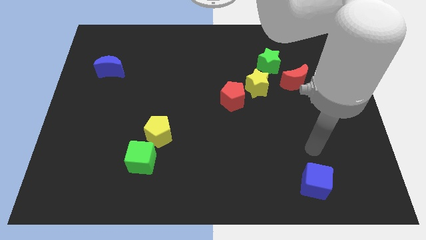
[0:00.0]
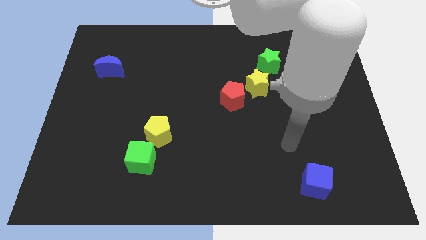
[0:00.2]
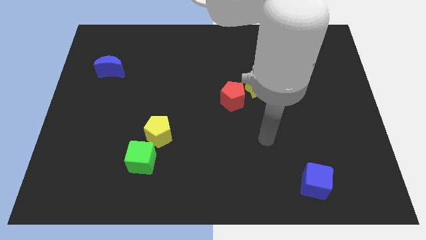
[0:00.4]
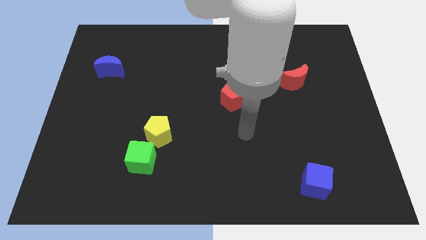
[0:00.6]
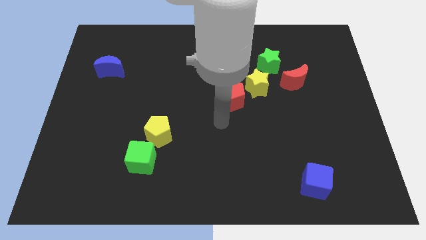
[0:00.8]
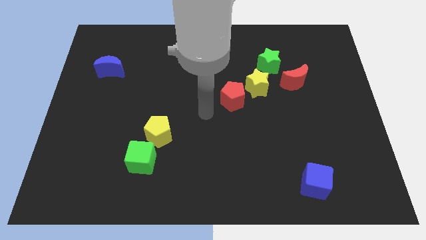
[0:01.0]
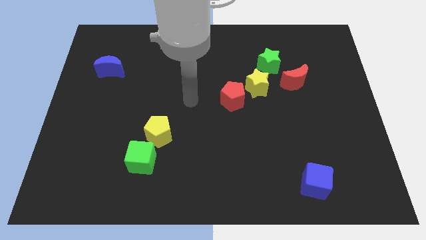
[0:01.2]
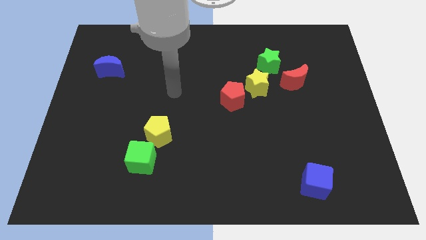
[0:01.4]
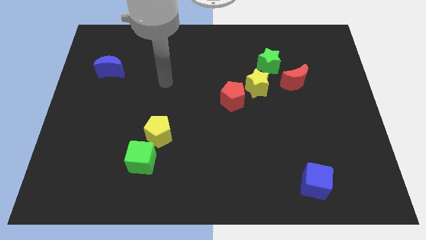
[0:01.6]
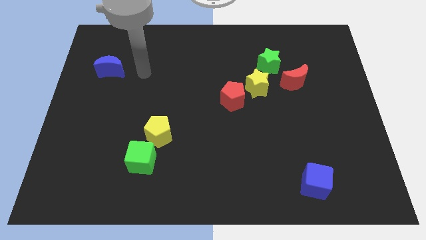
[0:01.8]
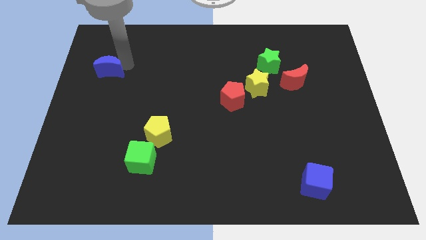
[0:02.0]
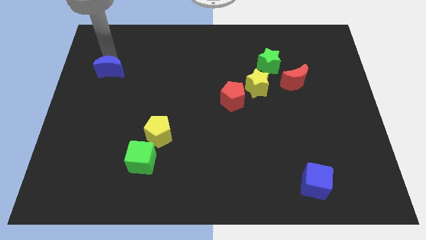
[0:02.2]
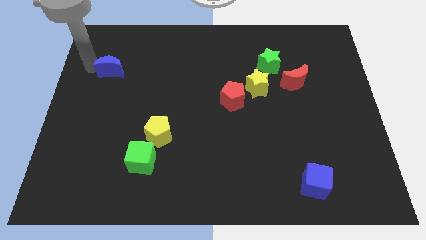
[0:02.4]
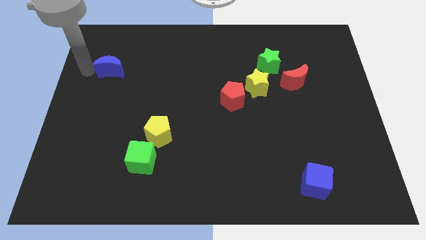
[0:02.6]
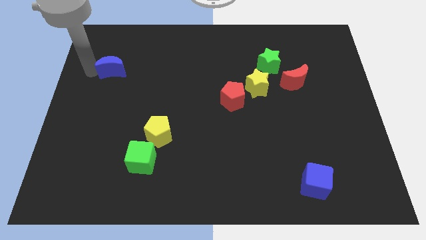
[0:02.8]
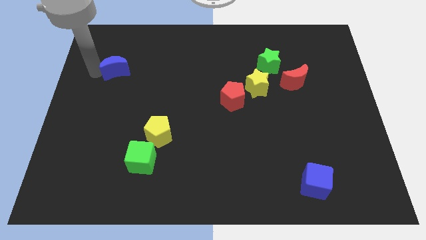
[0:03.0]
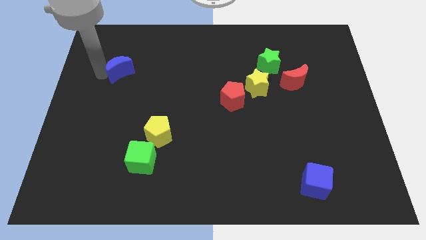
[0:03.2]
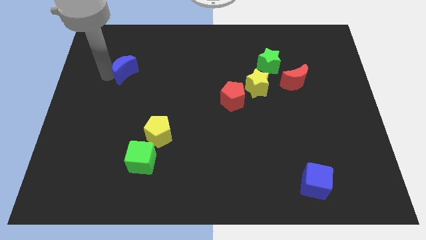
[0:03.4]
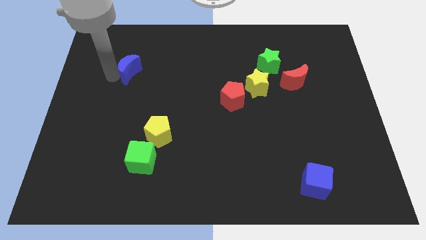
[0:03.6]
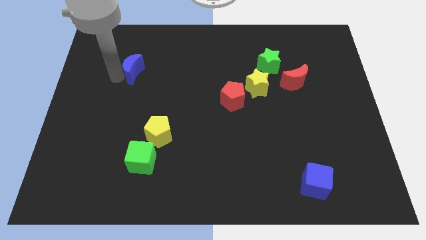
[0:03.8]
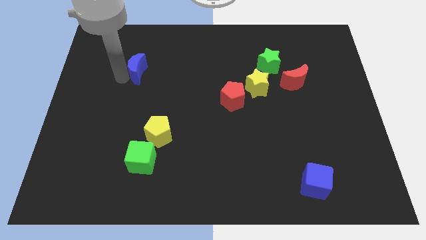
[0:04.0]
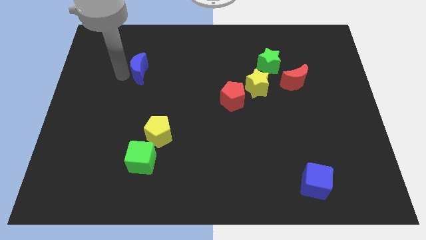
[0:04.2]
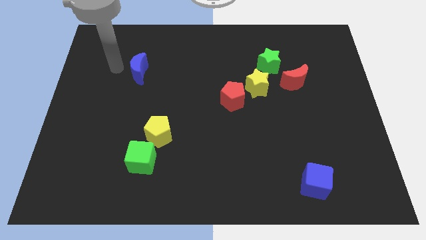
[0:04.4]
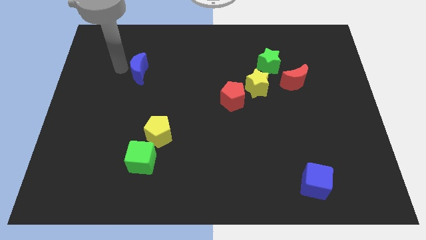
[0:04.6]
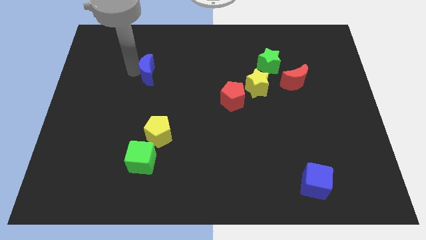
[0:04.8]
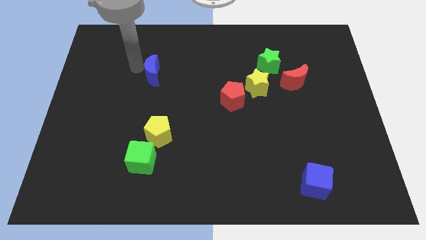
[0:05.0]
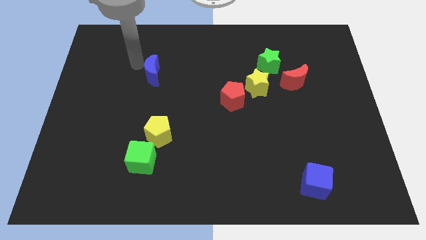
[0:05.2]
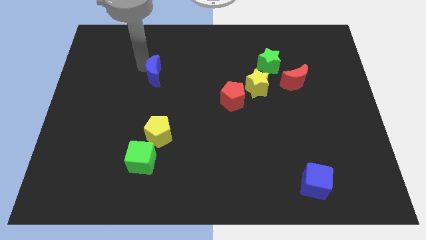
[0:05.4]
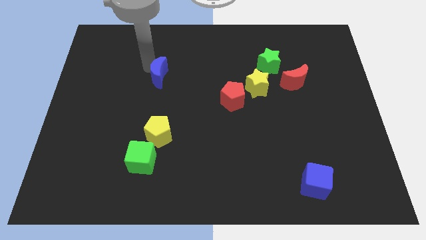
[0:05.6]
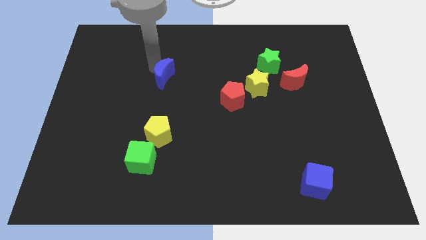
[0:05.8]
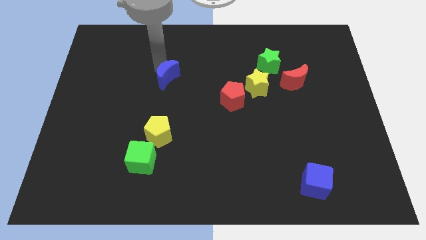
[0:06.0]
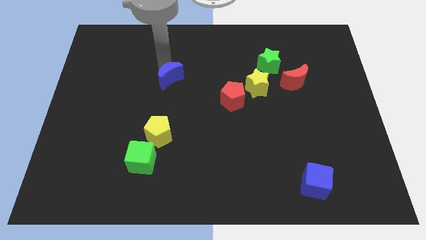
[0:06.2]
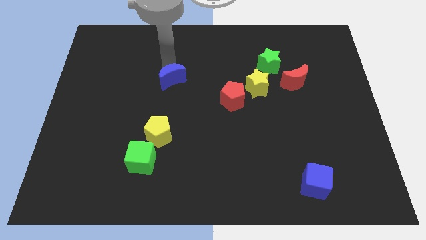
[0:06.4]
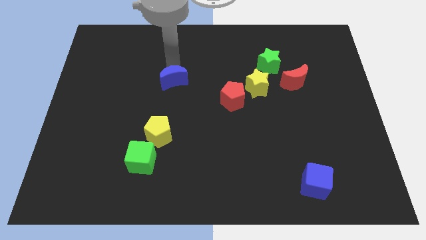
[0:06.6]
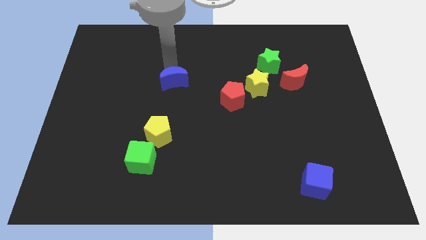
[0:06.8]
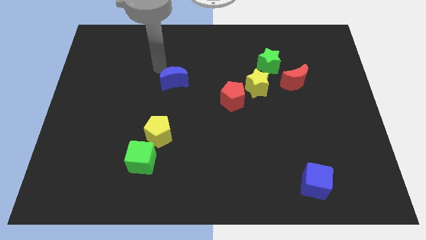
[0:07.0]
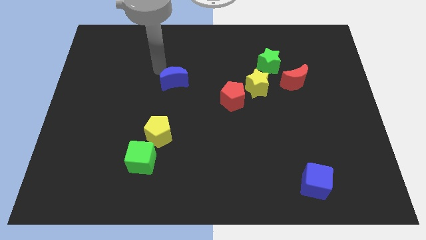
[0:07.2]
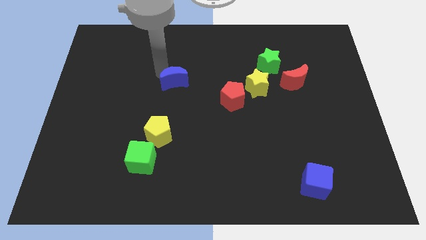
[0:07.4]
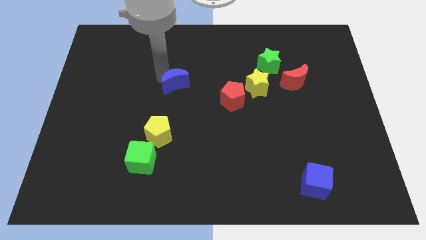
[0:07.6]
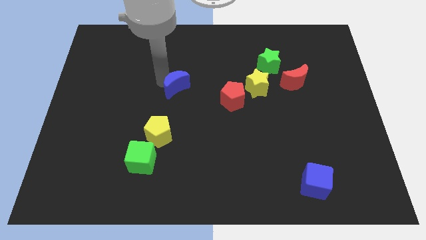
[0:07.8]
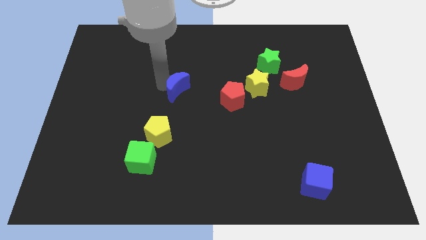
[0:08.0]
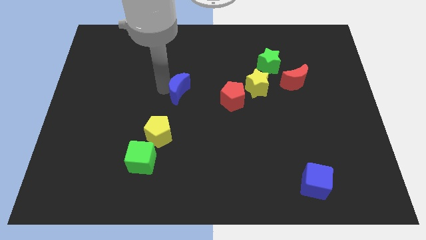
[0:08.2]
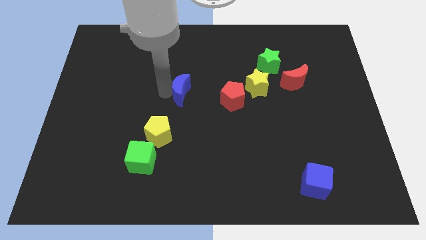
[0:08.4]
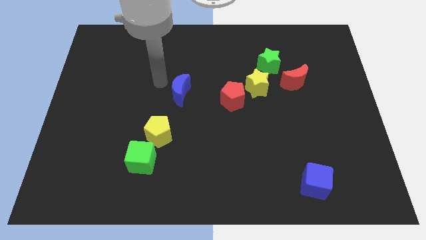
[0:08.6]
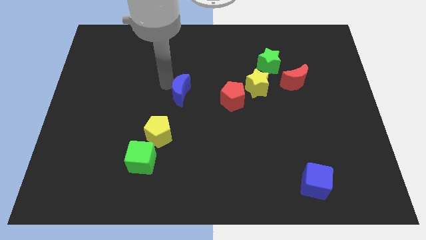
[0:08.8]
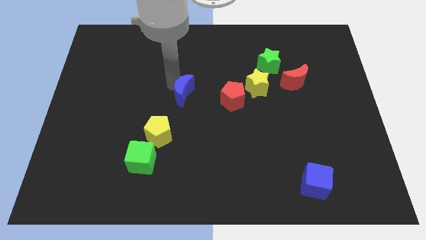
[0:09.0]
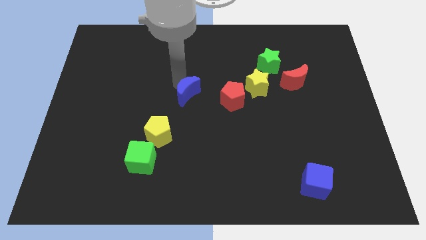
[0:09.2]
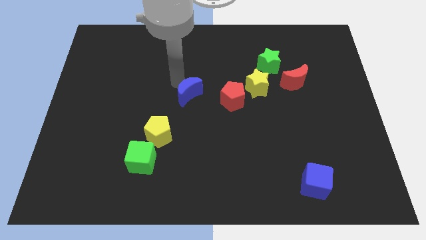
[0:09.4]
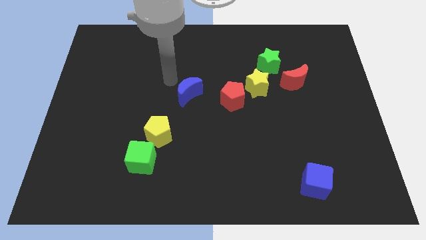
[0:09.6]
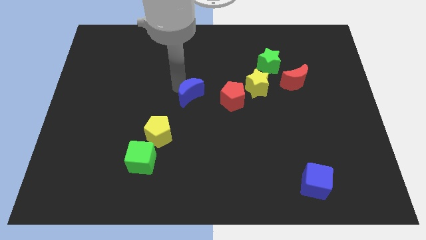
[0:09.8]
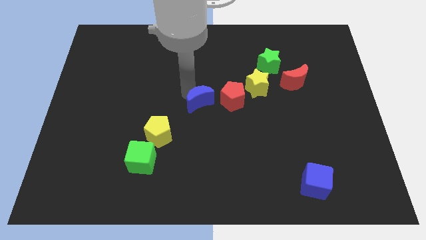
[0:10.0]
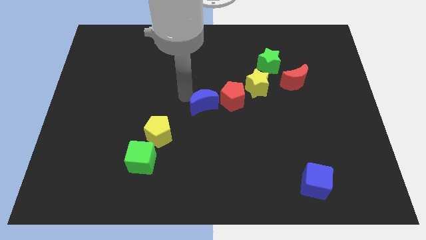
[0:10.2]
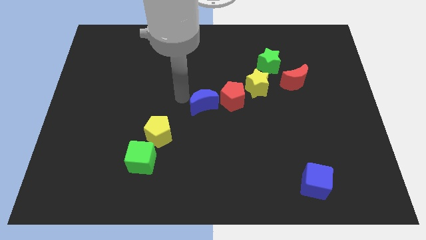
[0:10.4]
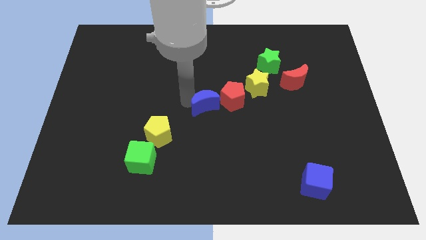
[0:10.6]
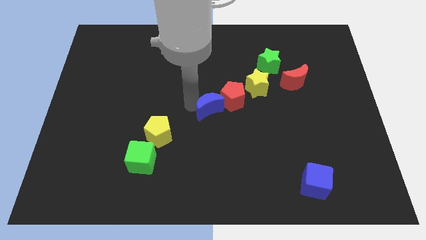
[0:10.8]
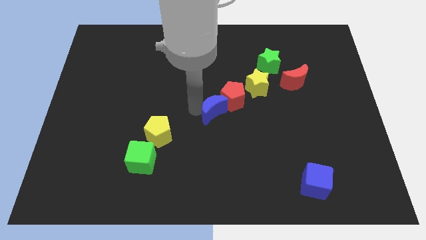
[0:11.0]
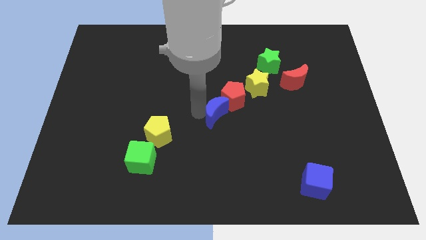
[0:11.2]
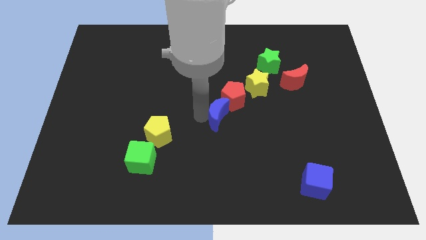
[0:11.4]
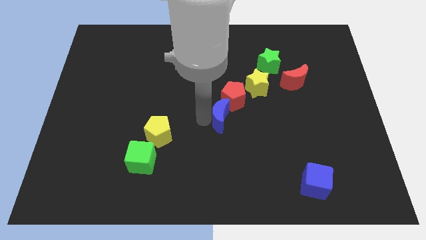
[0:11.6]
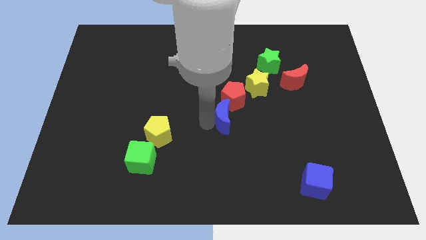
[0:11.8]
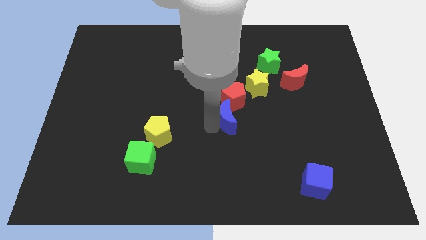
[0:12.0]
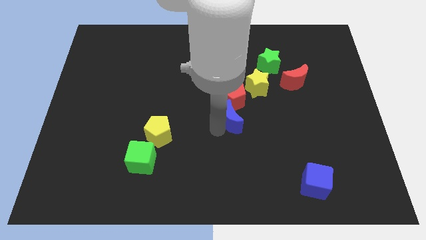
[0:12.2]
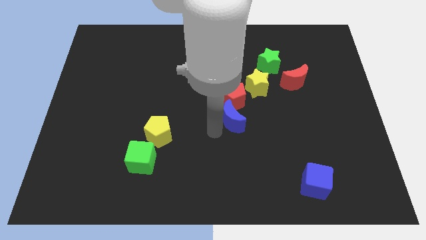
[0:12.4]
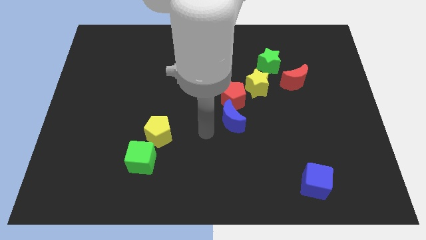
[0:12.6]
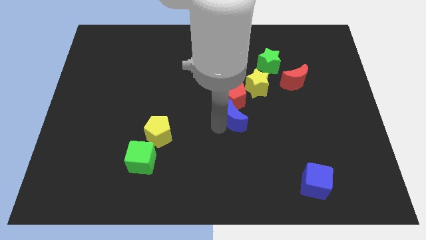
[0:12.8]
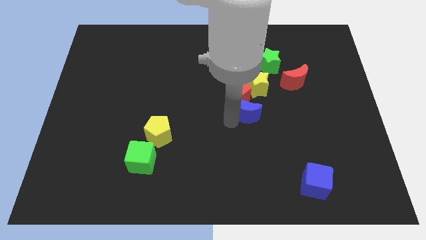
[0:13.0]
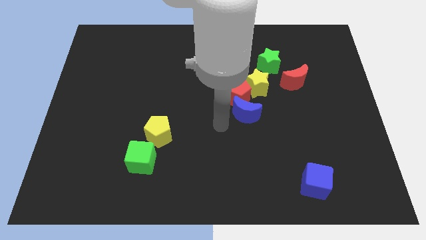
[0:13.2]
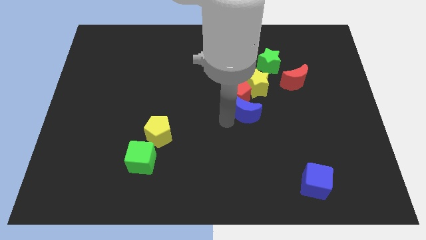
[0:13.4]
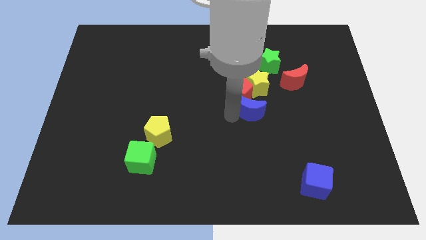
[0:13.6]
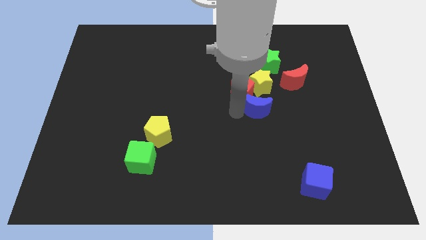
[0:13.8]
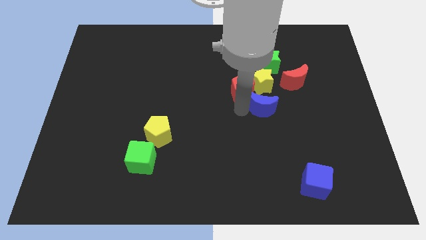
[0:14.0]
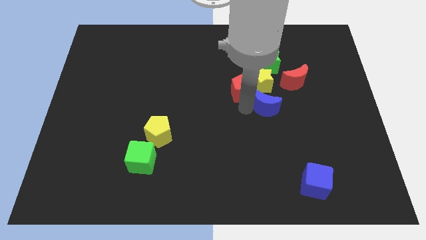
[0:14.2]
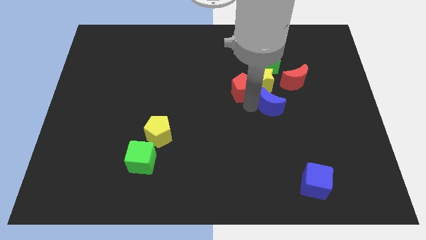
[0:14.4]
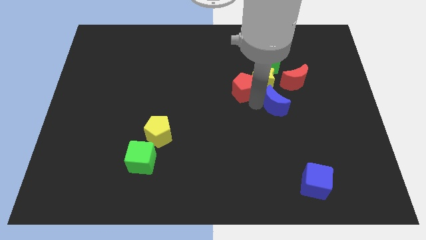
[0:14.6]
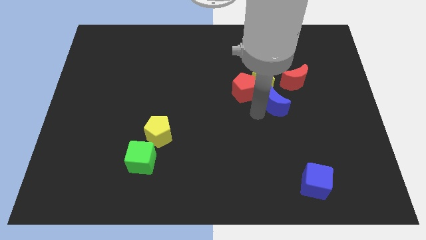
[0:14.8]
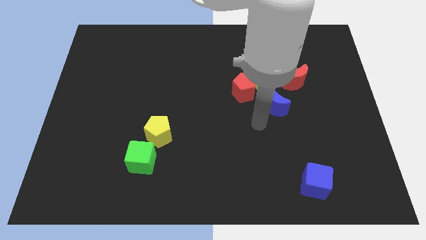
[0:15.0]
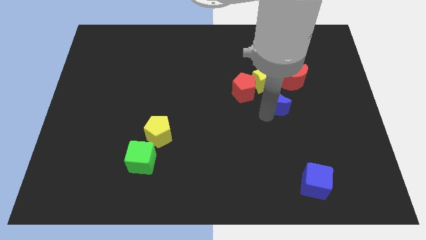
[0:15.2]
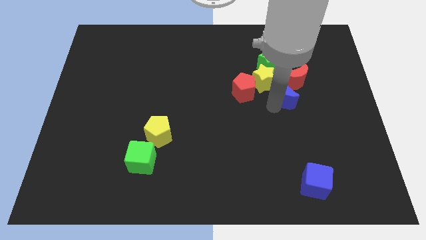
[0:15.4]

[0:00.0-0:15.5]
slide the blue moon to the red moon
